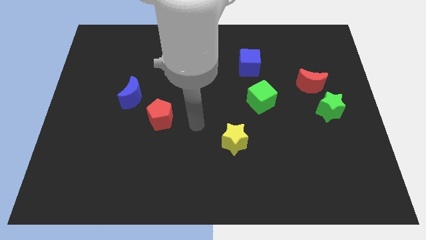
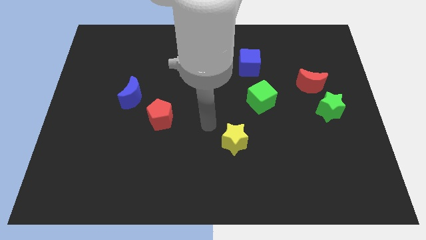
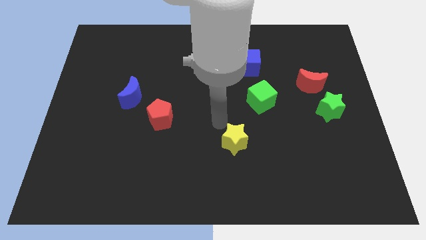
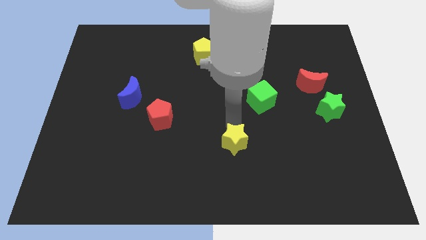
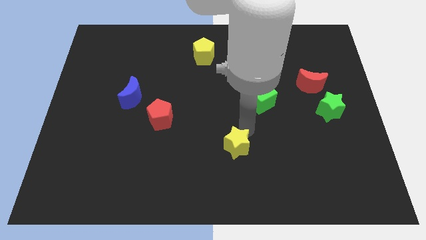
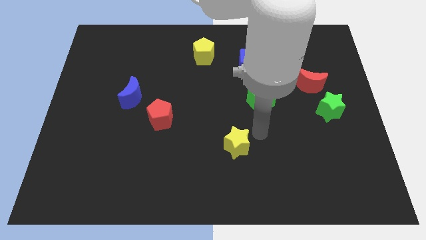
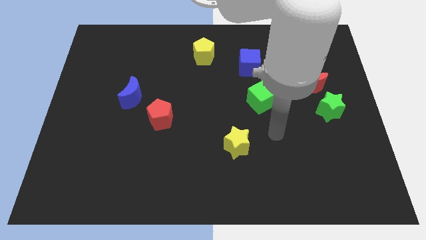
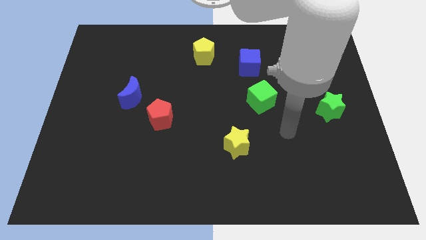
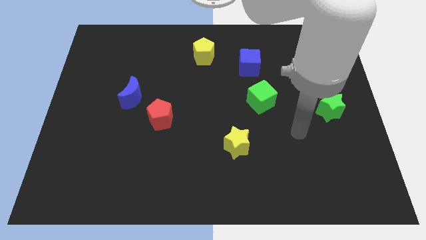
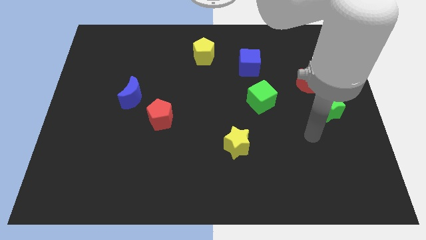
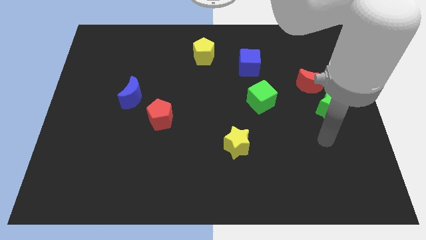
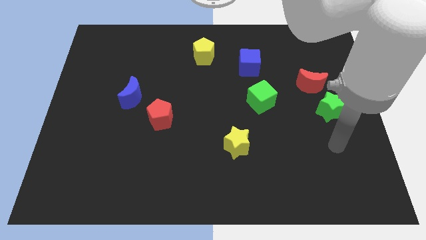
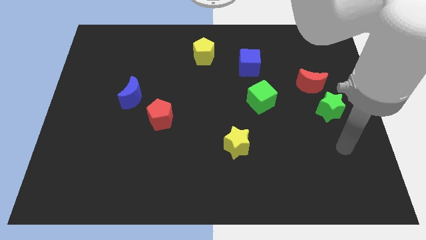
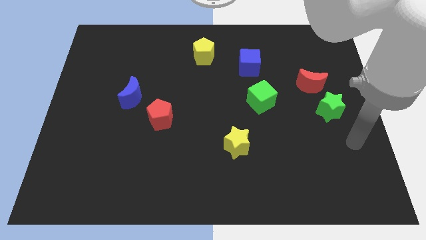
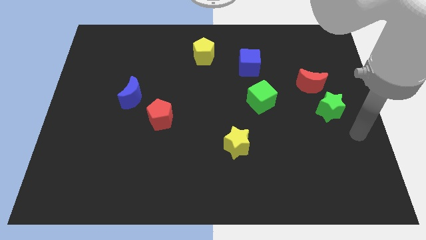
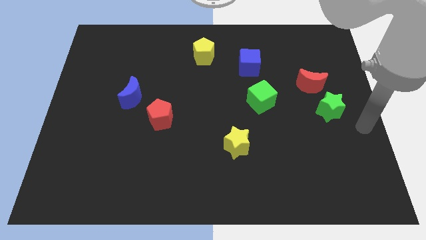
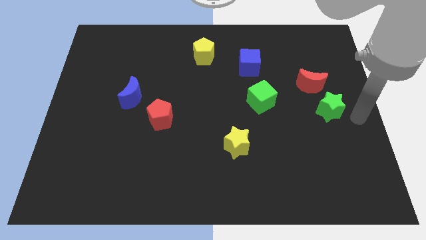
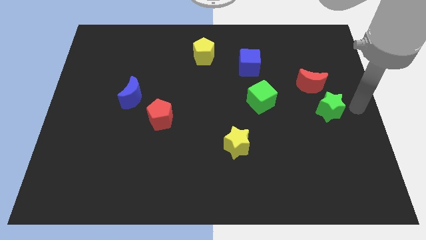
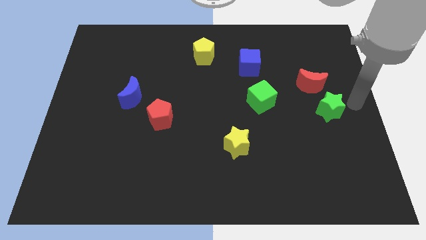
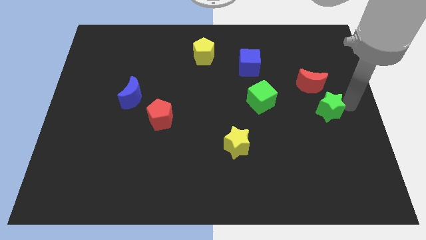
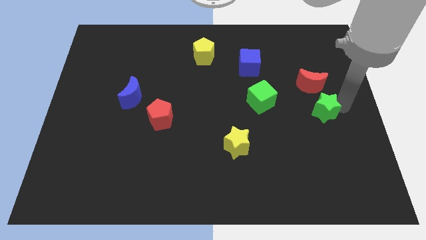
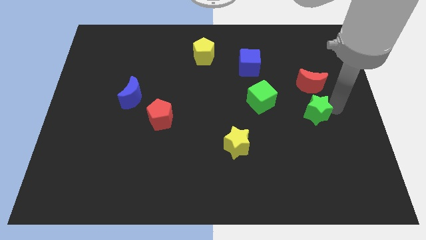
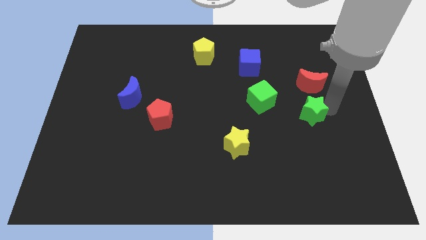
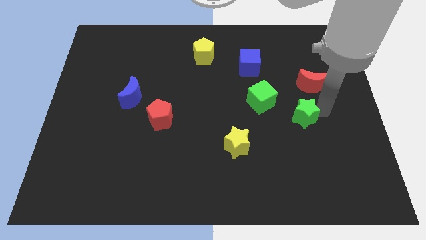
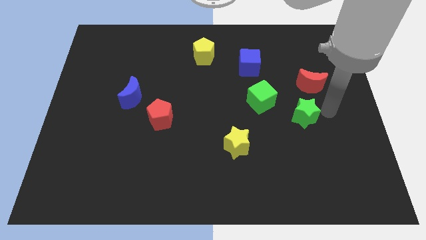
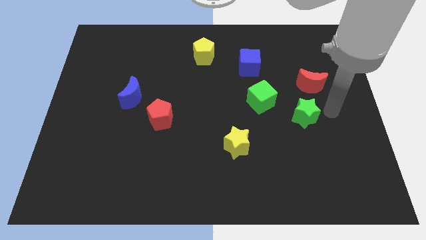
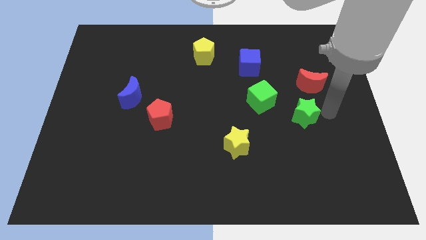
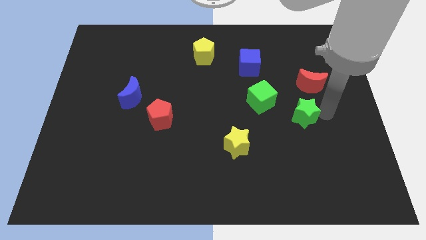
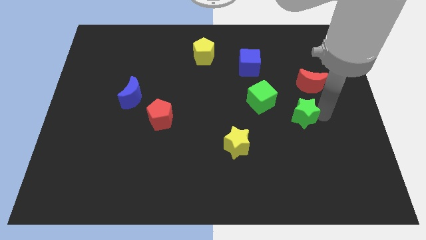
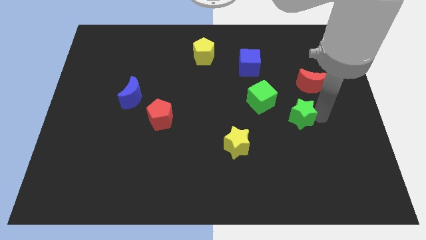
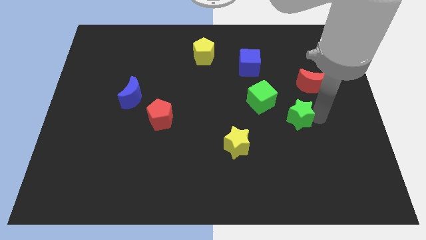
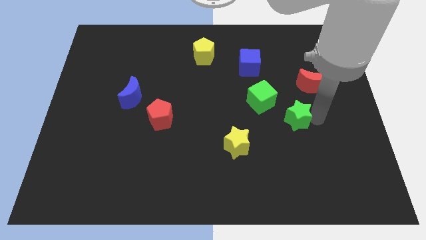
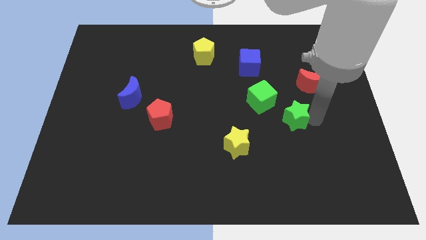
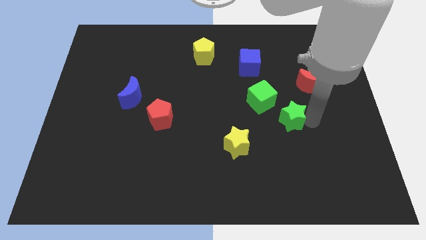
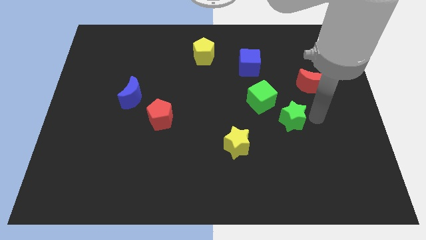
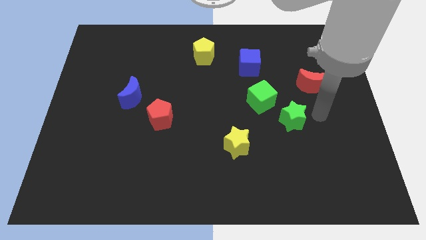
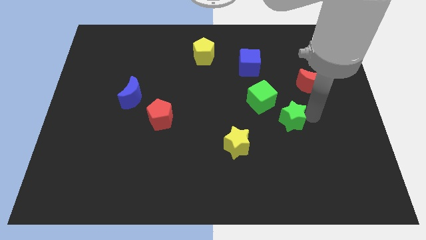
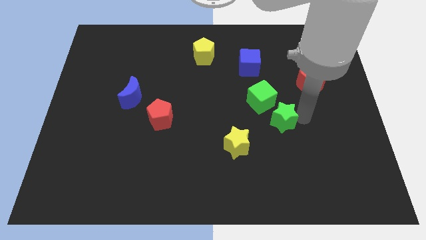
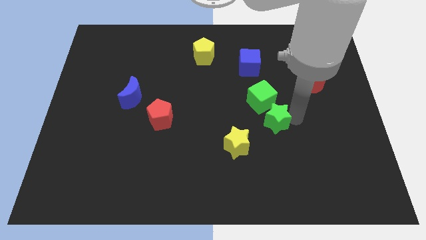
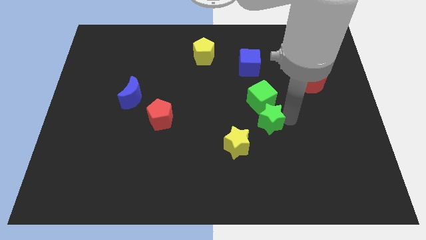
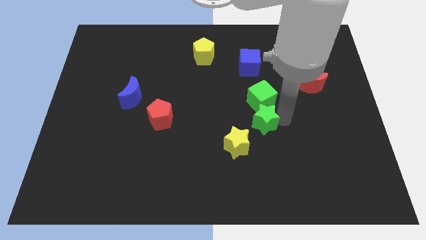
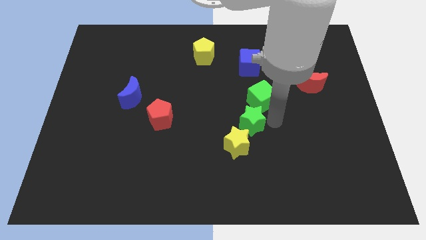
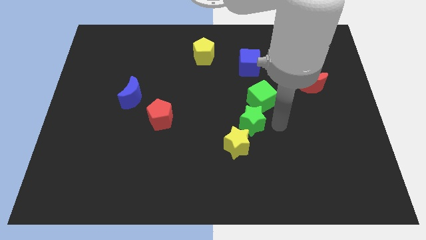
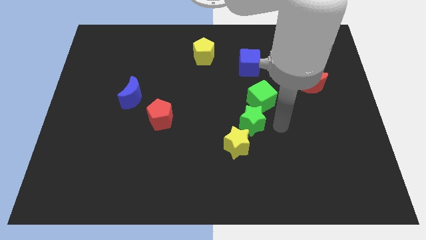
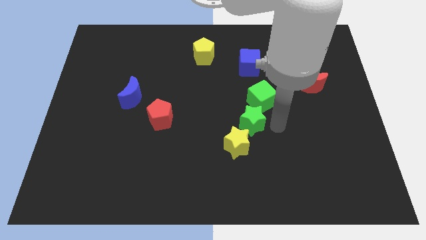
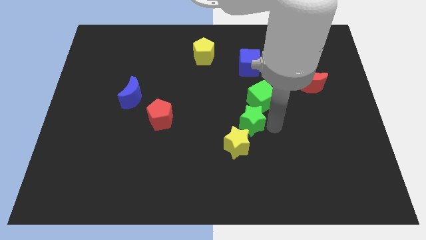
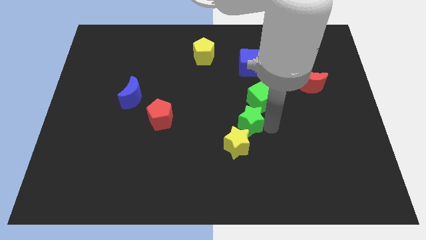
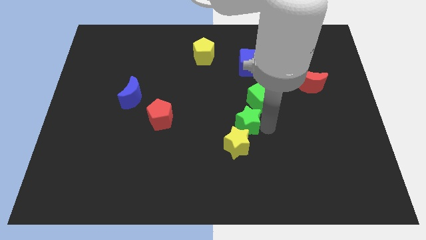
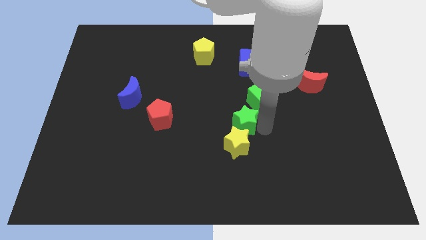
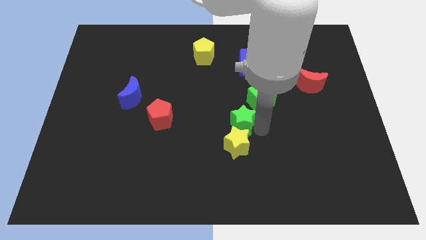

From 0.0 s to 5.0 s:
move the green star to the left

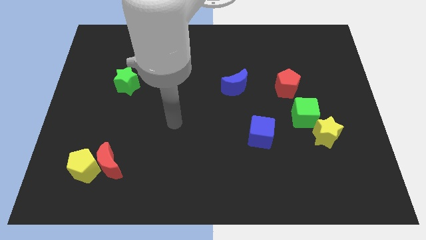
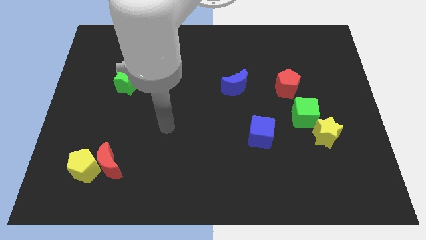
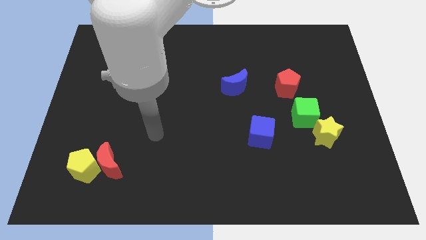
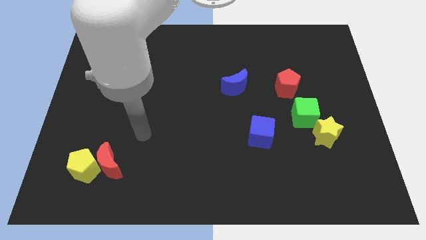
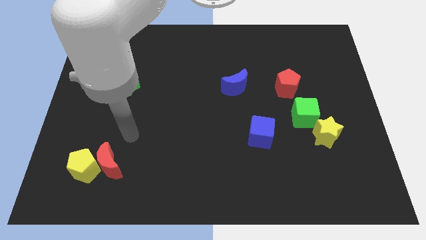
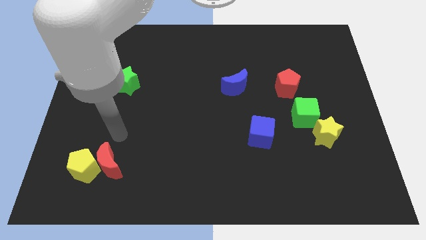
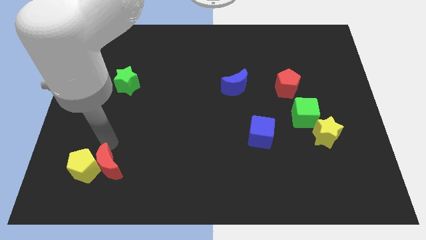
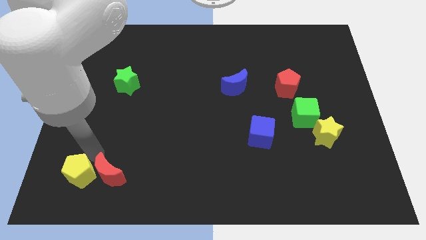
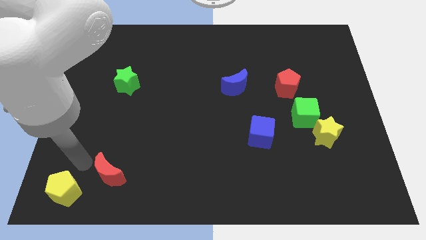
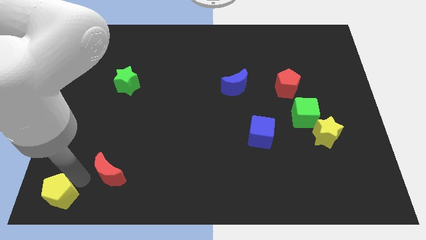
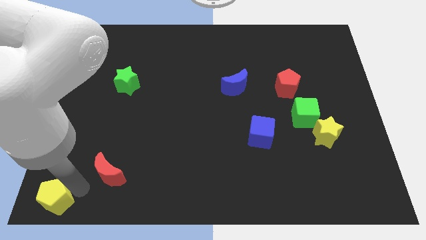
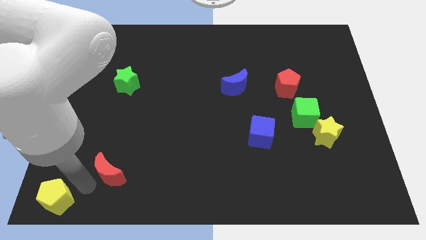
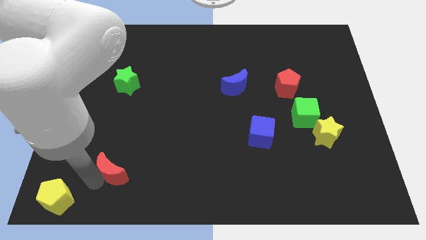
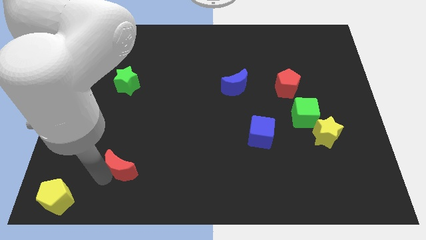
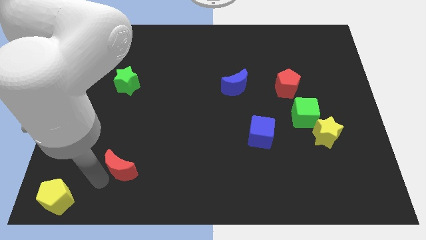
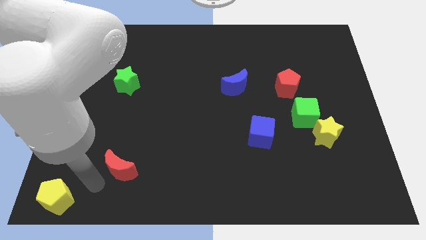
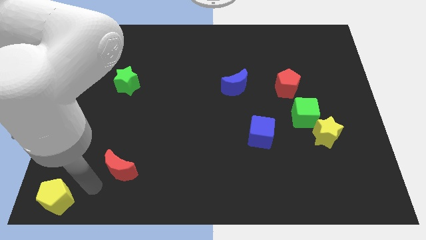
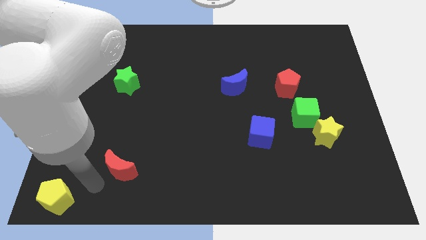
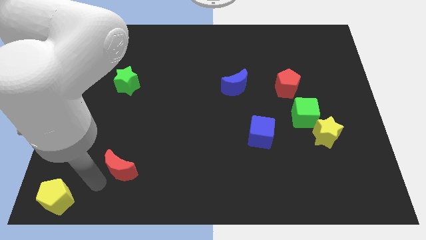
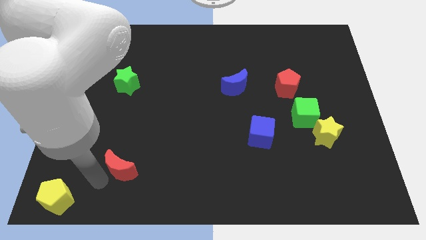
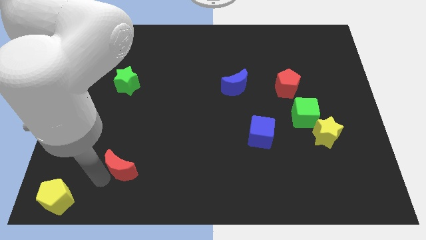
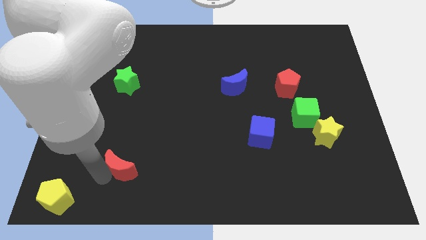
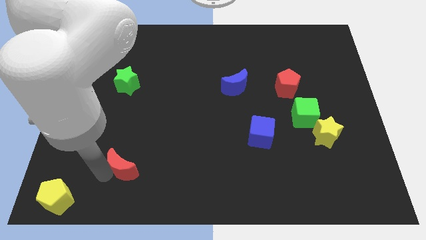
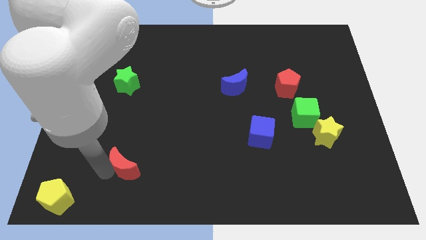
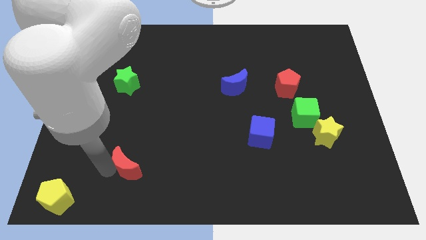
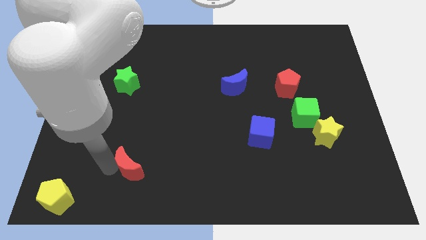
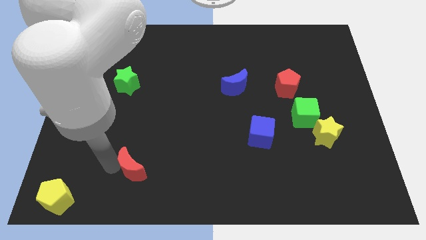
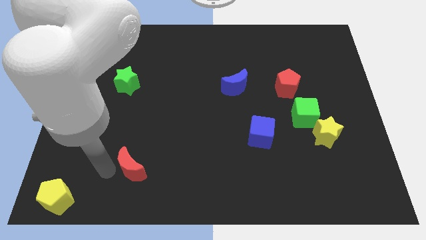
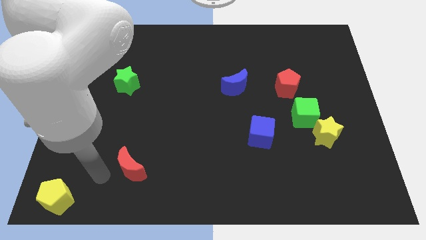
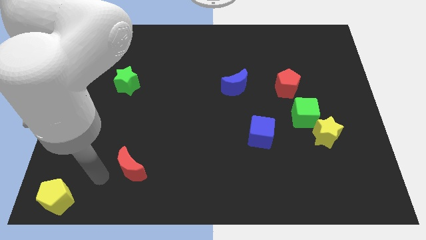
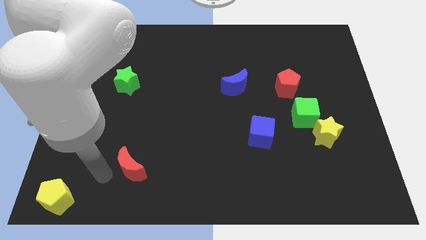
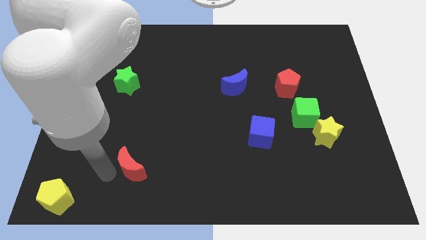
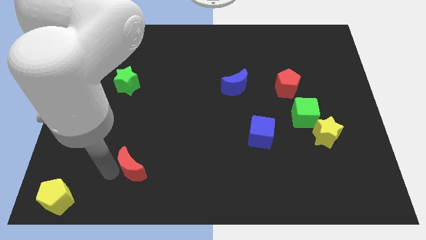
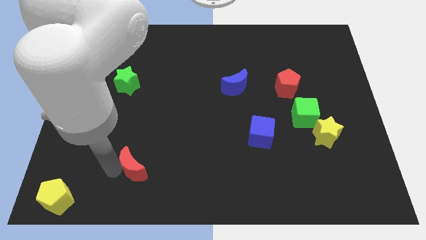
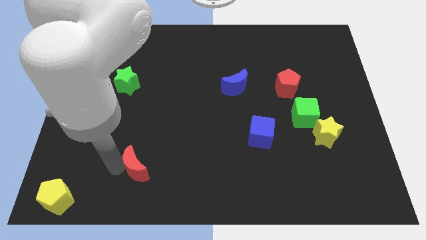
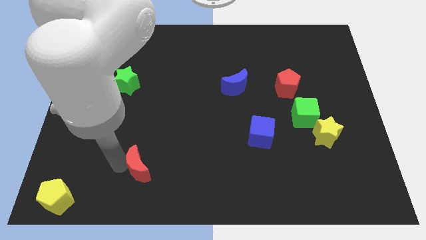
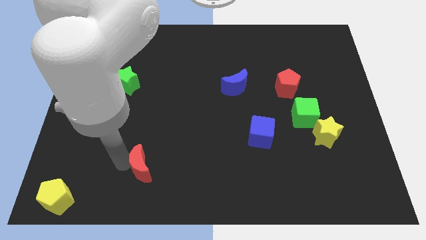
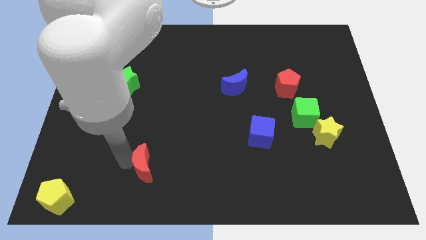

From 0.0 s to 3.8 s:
push the red moon a little to the right
